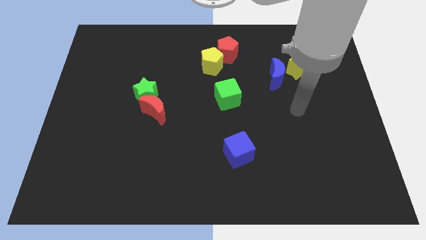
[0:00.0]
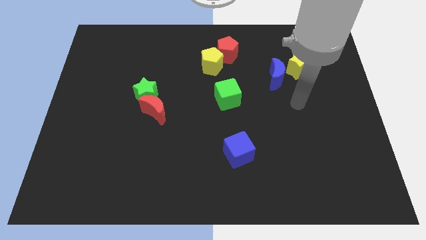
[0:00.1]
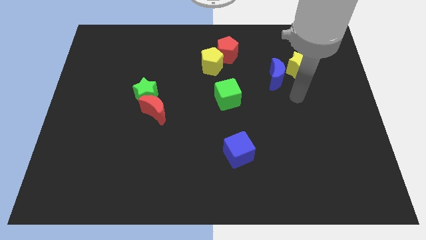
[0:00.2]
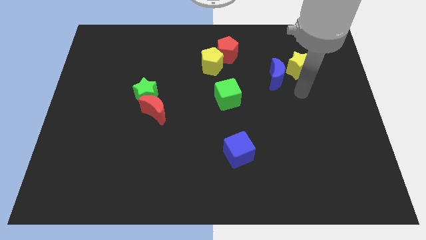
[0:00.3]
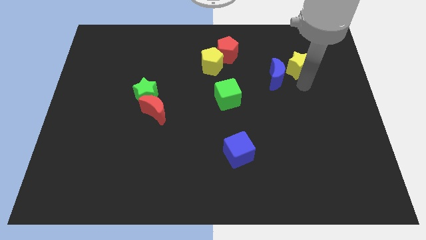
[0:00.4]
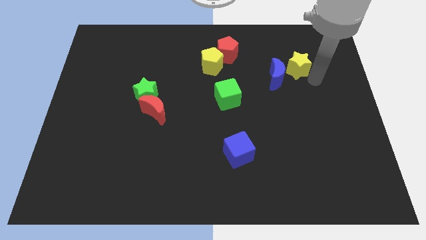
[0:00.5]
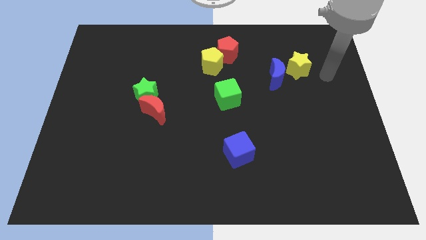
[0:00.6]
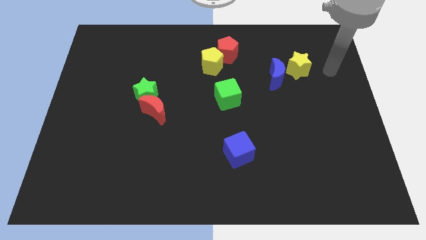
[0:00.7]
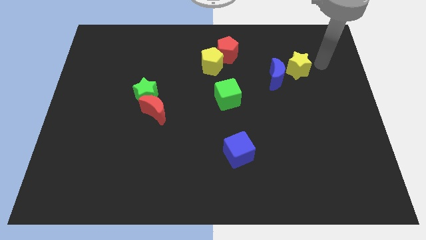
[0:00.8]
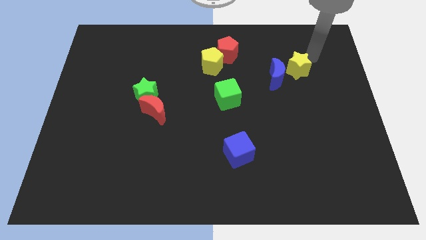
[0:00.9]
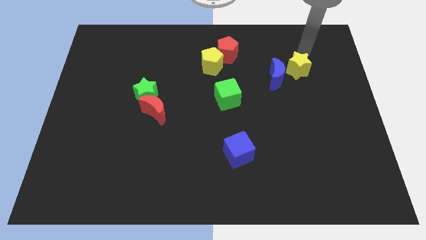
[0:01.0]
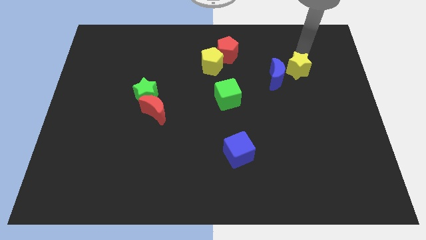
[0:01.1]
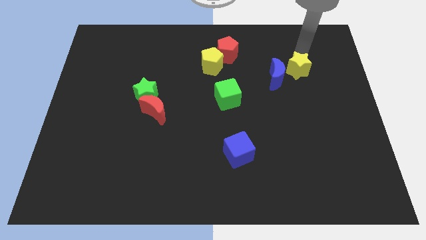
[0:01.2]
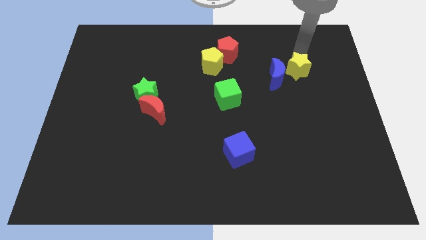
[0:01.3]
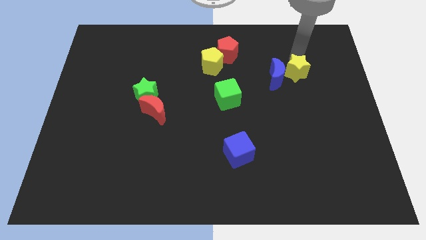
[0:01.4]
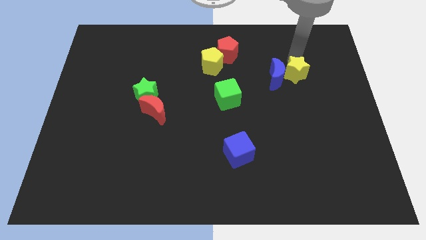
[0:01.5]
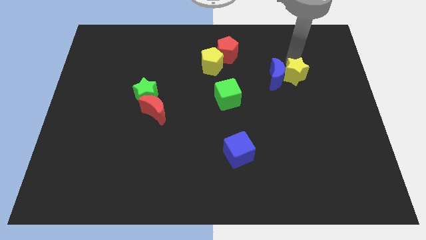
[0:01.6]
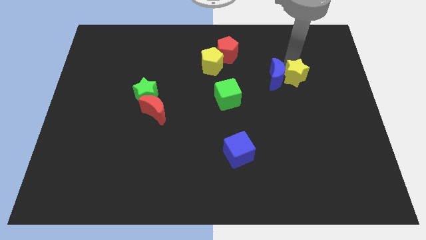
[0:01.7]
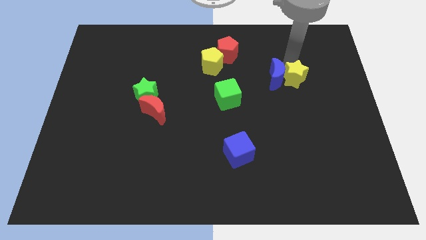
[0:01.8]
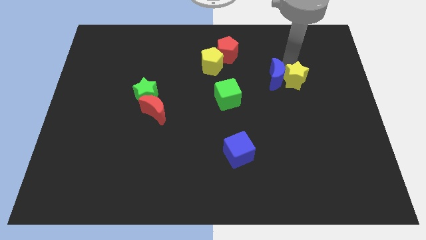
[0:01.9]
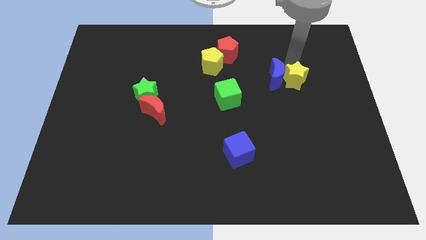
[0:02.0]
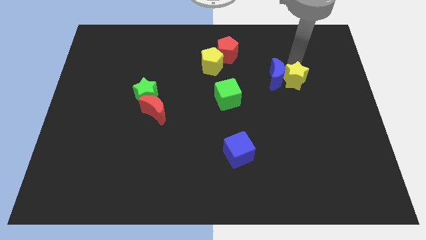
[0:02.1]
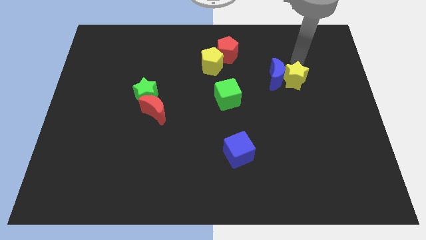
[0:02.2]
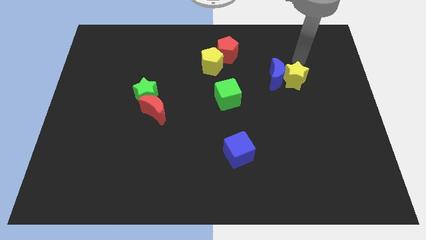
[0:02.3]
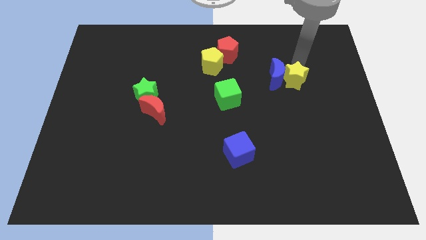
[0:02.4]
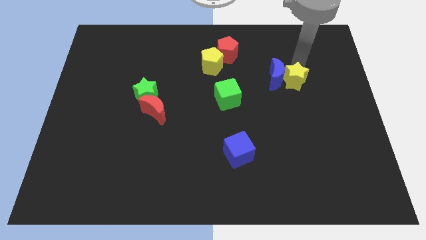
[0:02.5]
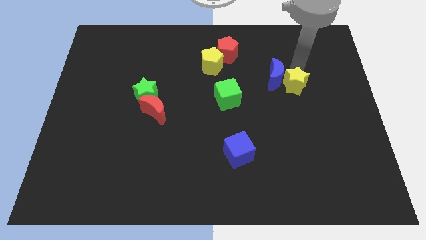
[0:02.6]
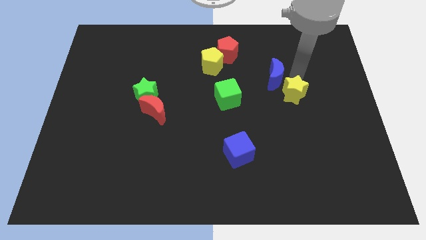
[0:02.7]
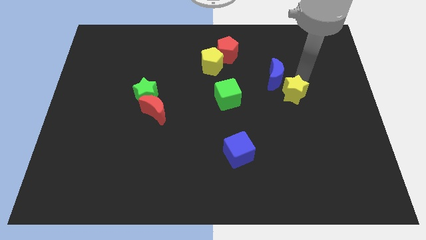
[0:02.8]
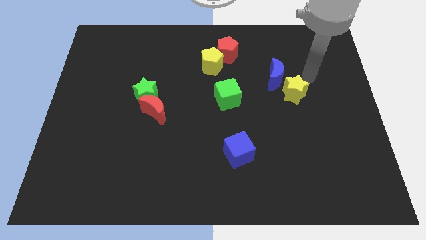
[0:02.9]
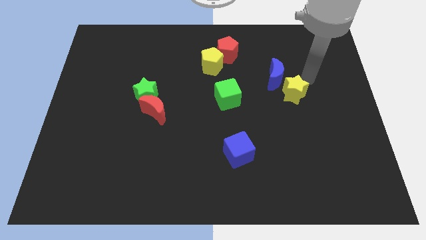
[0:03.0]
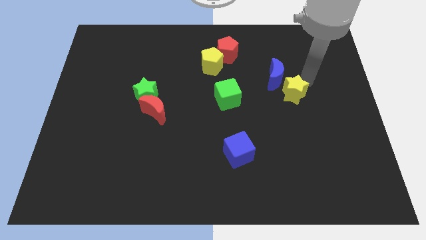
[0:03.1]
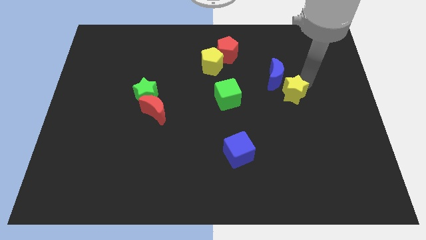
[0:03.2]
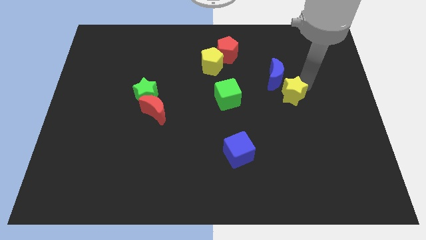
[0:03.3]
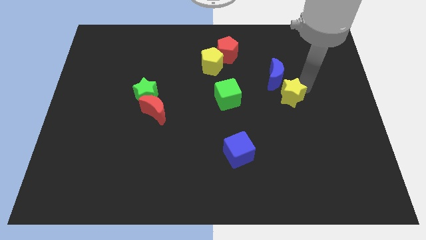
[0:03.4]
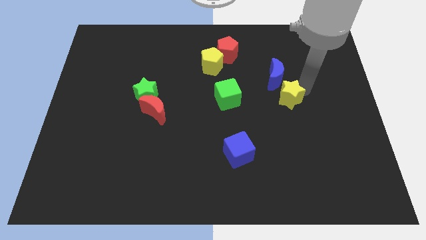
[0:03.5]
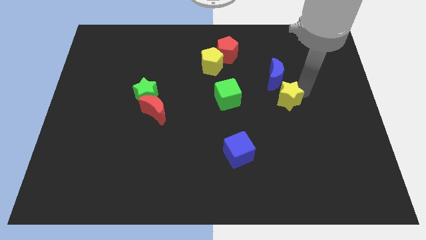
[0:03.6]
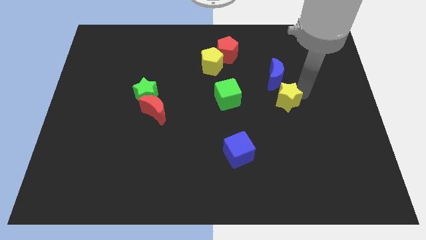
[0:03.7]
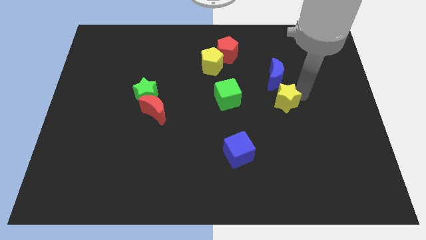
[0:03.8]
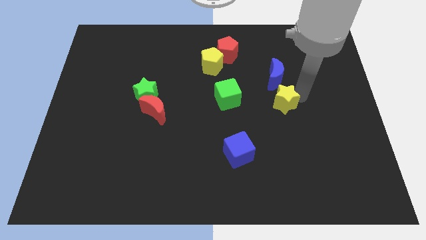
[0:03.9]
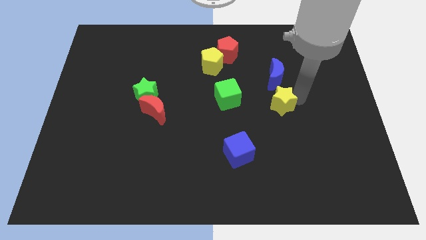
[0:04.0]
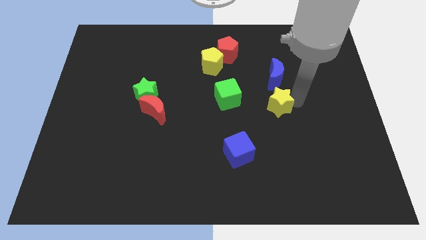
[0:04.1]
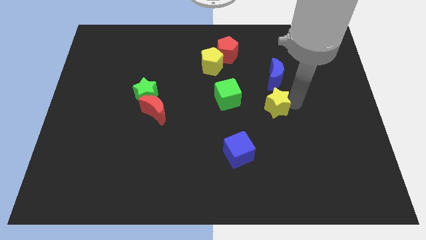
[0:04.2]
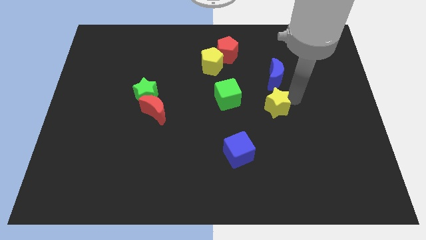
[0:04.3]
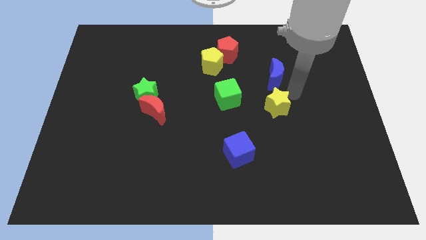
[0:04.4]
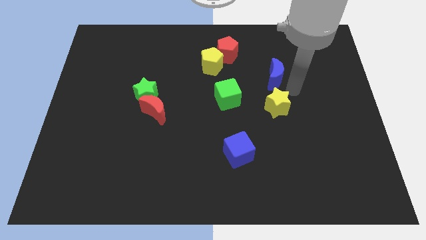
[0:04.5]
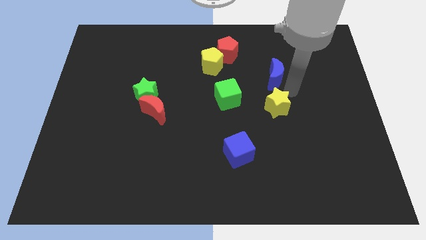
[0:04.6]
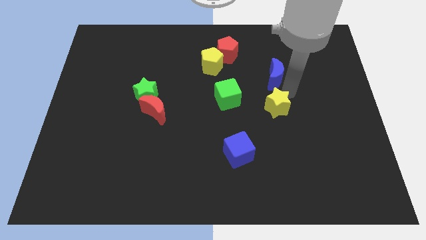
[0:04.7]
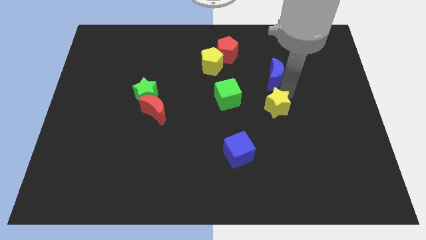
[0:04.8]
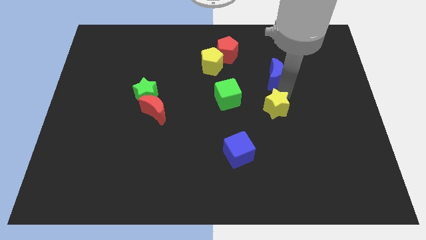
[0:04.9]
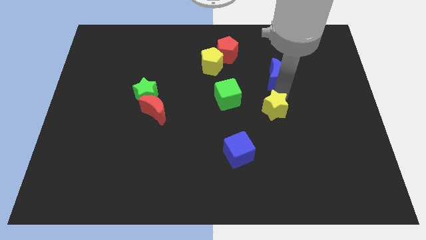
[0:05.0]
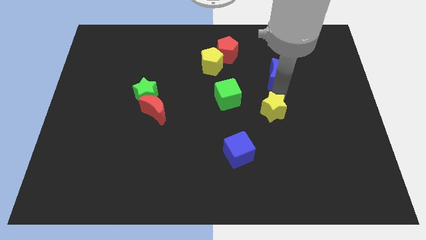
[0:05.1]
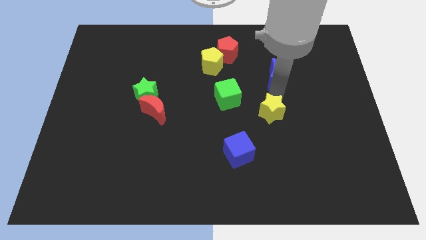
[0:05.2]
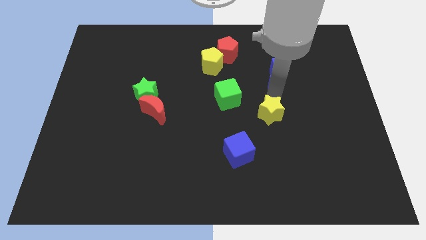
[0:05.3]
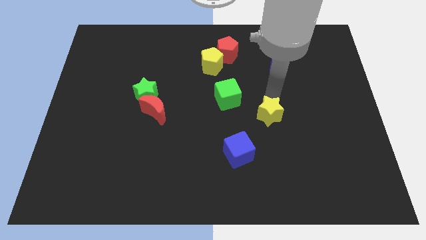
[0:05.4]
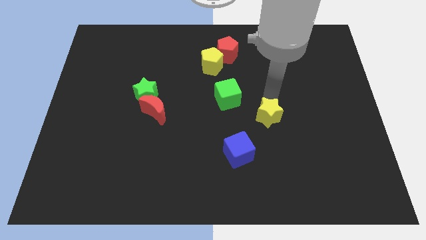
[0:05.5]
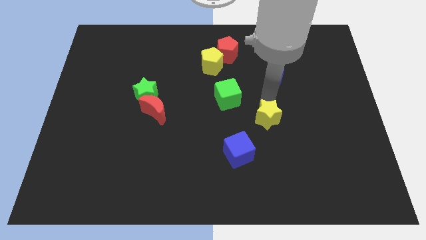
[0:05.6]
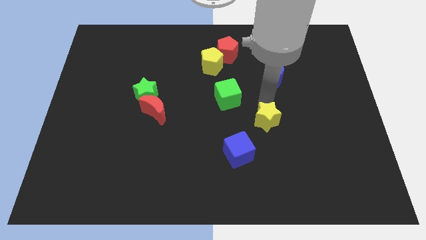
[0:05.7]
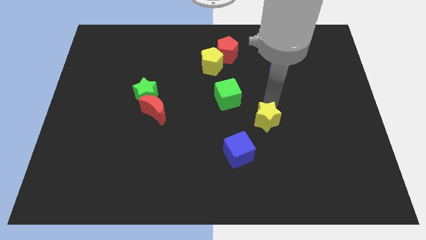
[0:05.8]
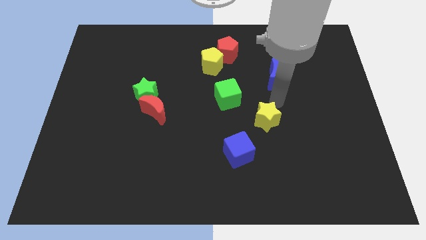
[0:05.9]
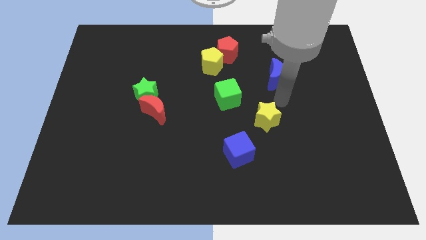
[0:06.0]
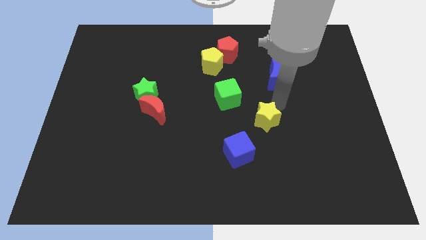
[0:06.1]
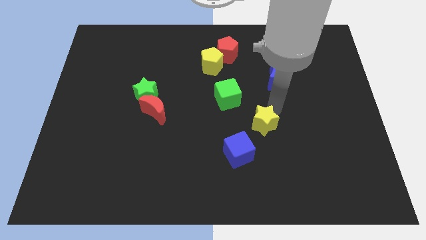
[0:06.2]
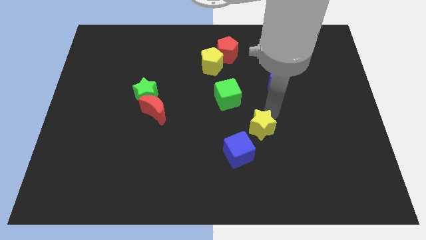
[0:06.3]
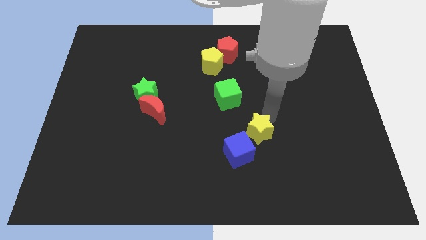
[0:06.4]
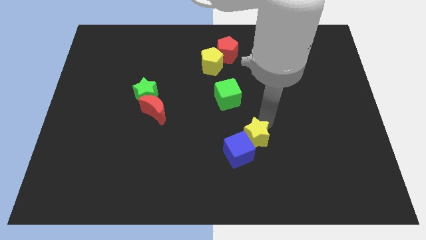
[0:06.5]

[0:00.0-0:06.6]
slide the yellow star next to the blue cube

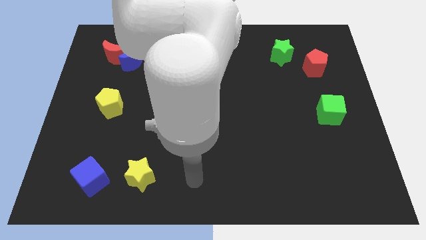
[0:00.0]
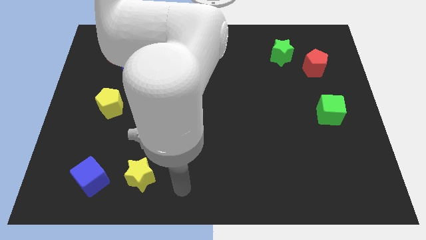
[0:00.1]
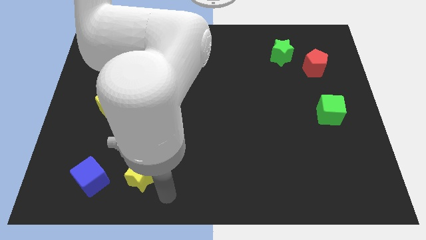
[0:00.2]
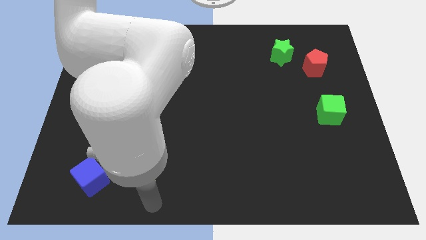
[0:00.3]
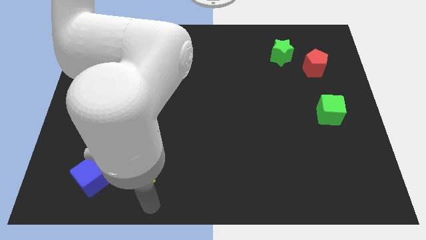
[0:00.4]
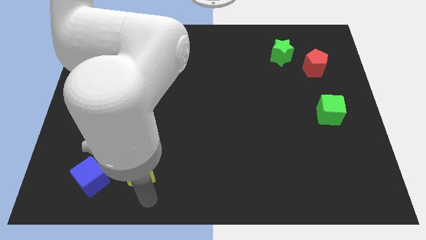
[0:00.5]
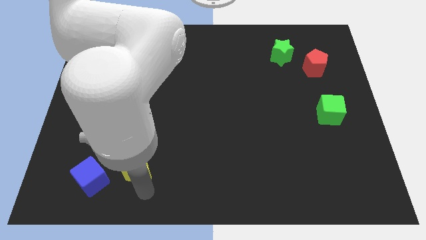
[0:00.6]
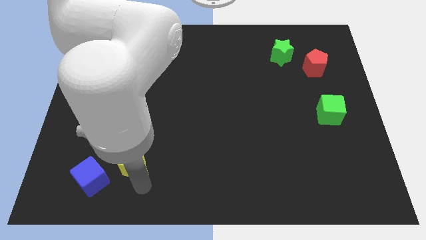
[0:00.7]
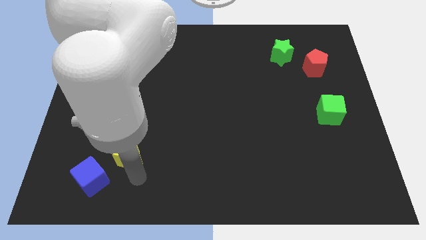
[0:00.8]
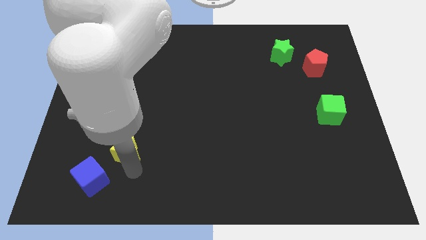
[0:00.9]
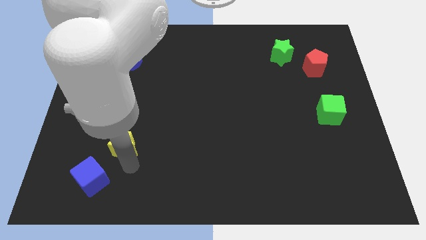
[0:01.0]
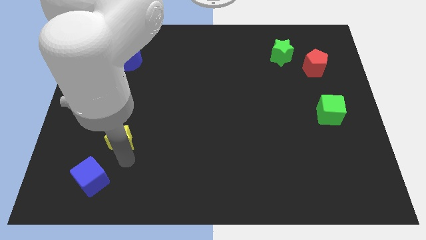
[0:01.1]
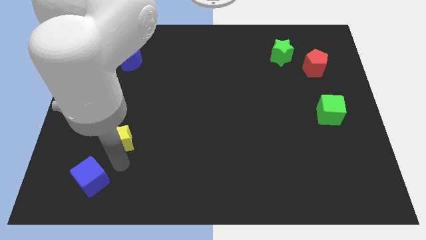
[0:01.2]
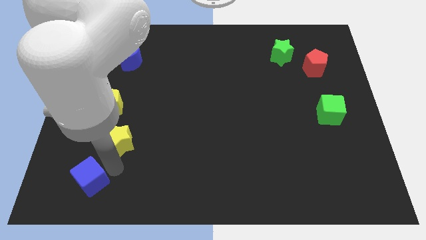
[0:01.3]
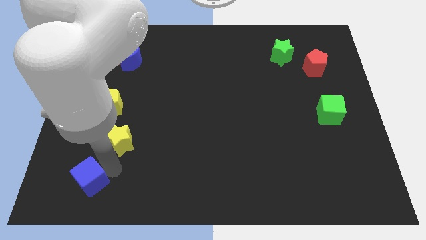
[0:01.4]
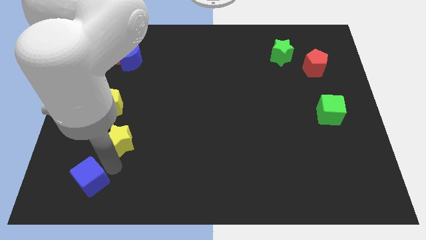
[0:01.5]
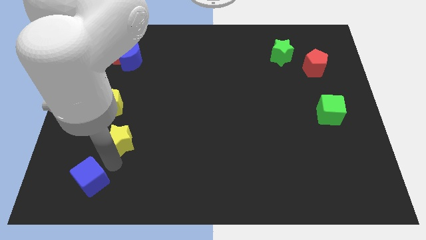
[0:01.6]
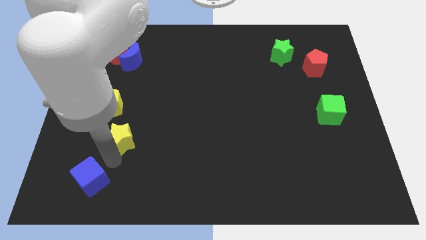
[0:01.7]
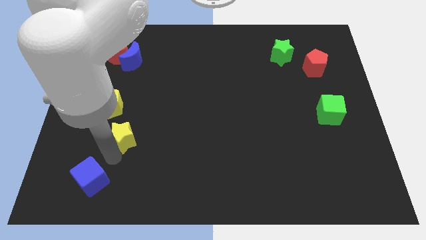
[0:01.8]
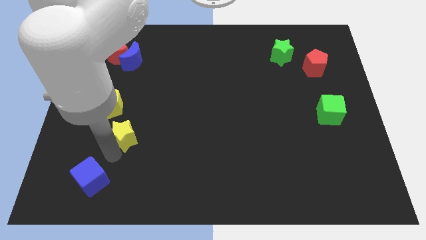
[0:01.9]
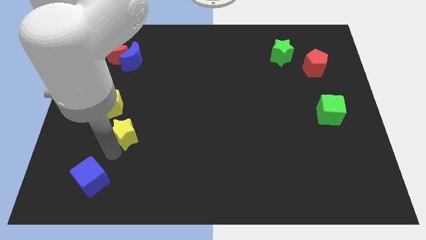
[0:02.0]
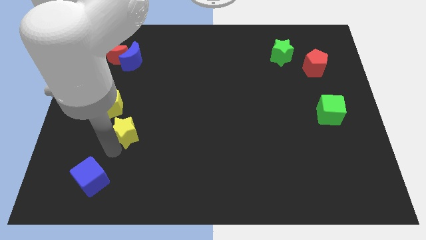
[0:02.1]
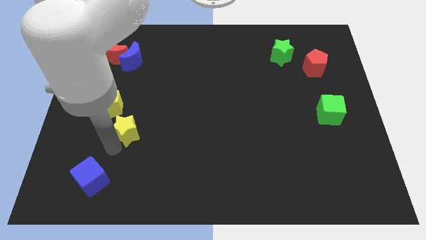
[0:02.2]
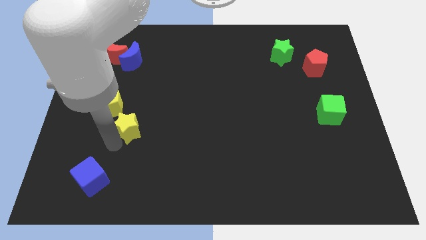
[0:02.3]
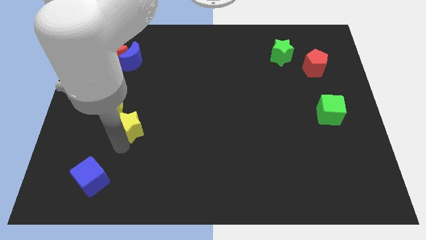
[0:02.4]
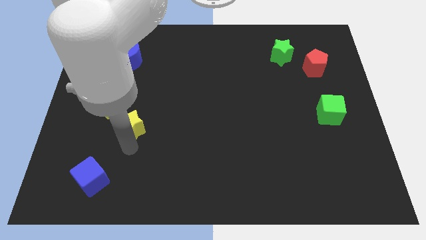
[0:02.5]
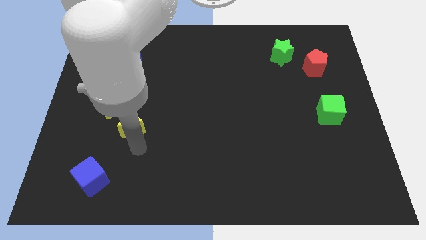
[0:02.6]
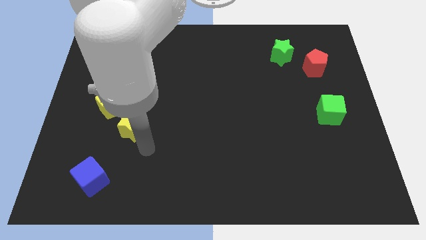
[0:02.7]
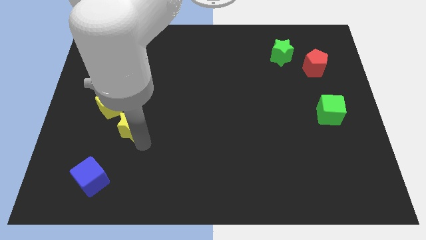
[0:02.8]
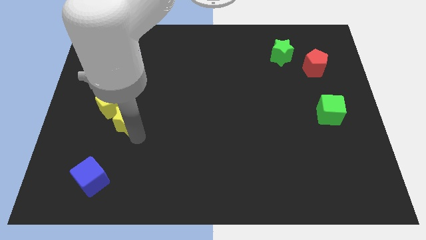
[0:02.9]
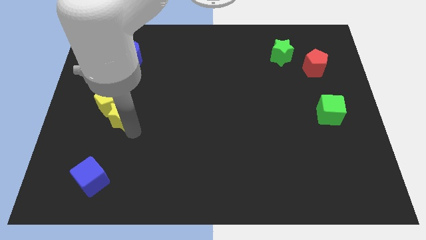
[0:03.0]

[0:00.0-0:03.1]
put the yellow star next to the yellow pentagon
